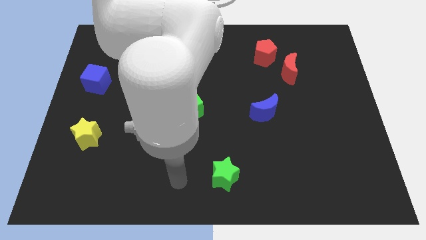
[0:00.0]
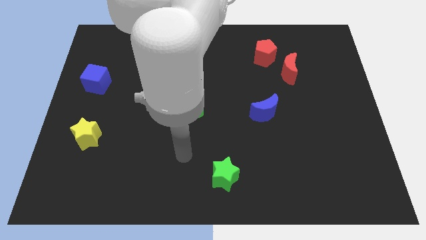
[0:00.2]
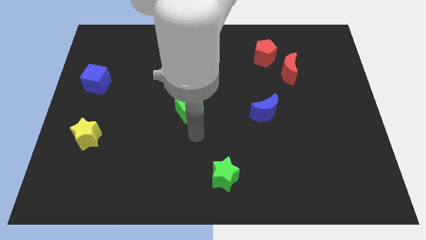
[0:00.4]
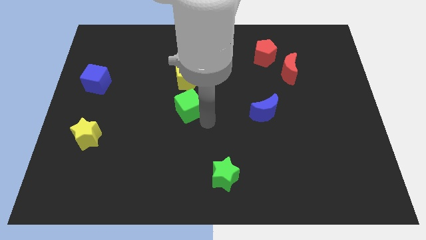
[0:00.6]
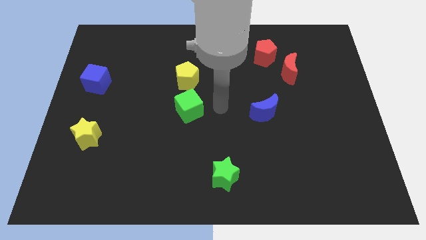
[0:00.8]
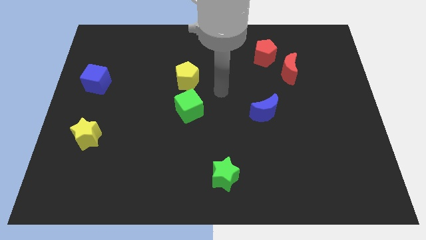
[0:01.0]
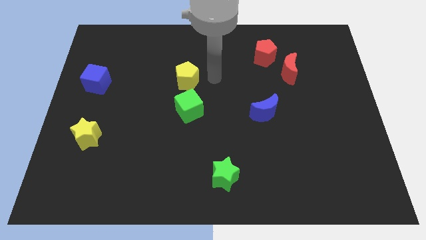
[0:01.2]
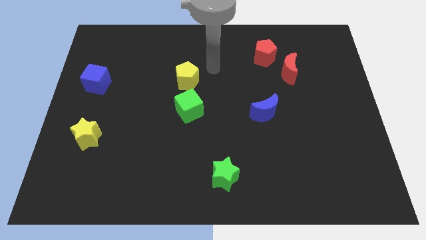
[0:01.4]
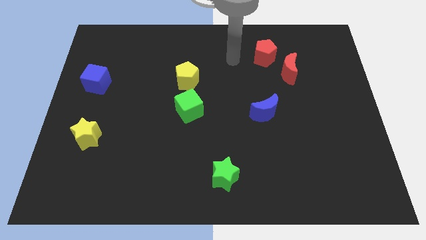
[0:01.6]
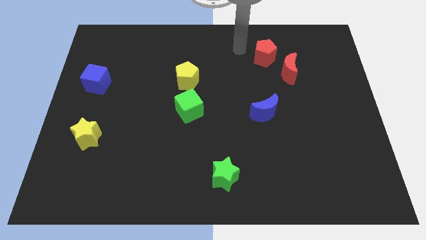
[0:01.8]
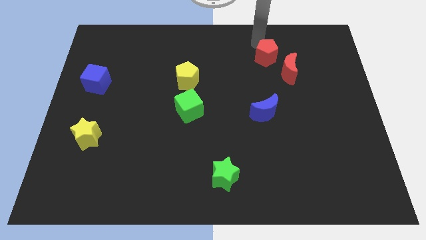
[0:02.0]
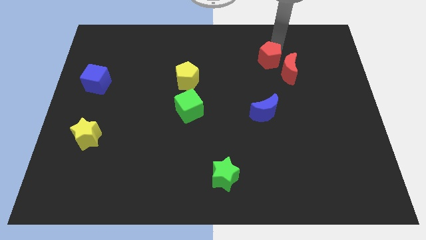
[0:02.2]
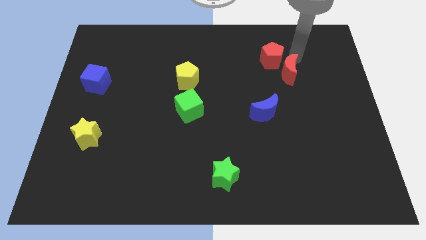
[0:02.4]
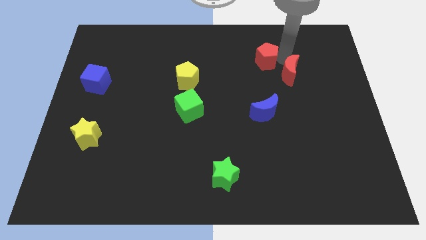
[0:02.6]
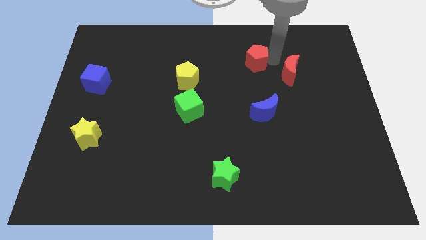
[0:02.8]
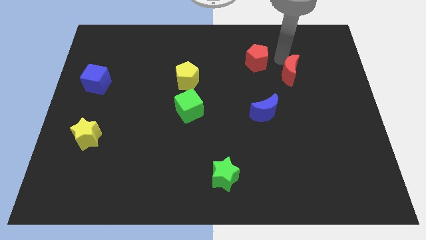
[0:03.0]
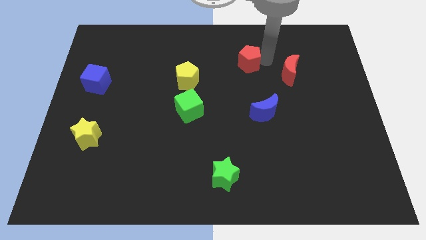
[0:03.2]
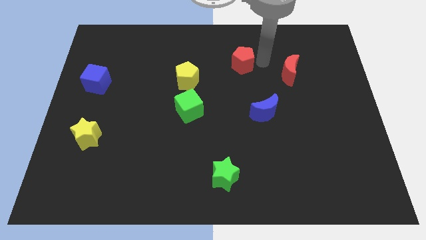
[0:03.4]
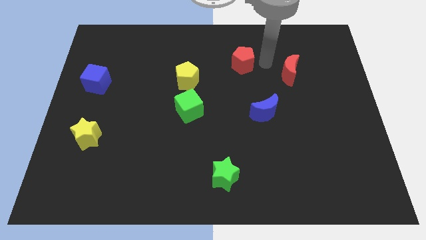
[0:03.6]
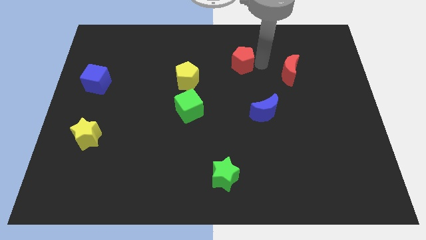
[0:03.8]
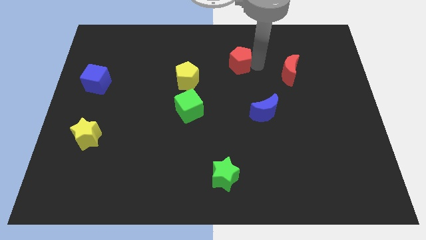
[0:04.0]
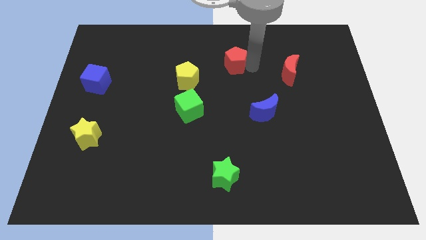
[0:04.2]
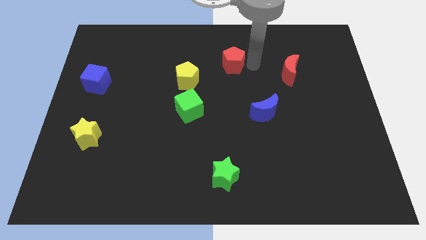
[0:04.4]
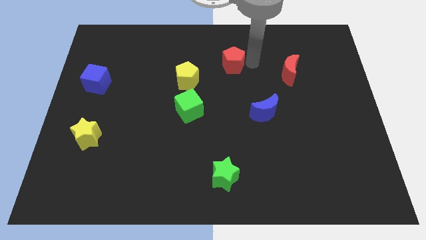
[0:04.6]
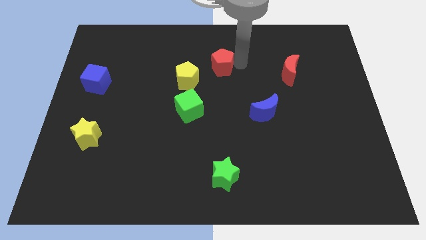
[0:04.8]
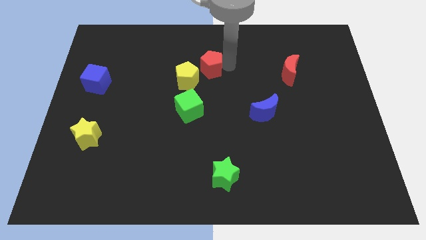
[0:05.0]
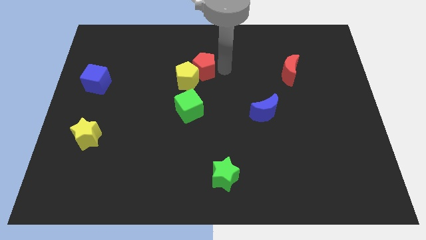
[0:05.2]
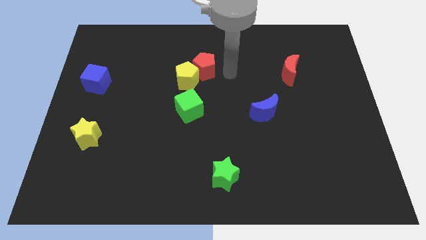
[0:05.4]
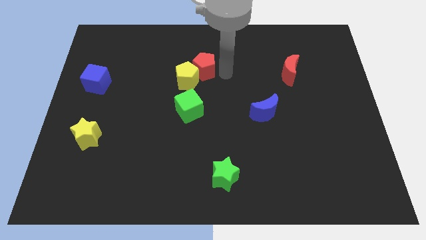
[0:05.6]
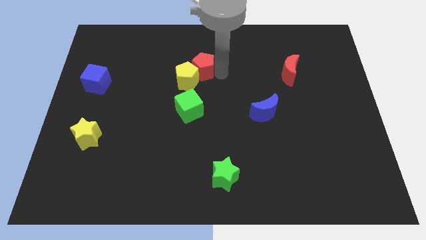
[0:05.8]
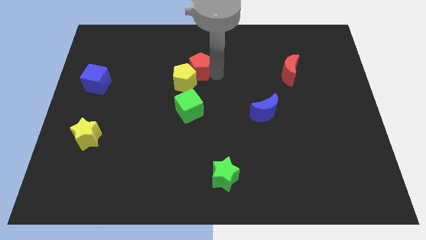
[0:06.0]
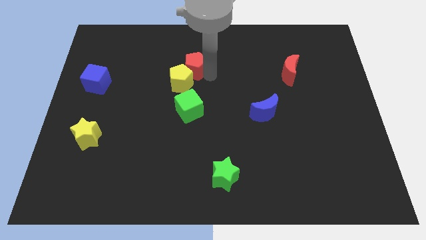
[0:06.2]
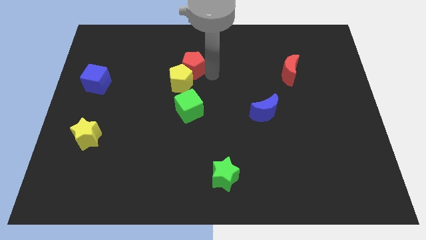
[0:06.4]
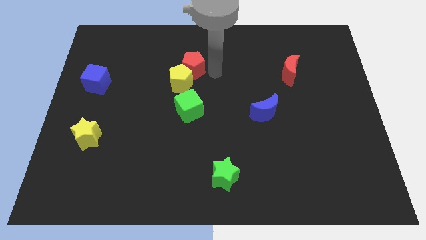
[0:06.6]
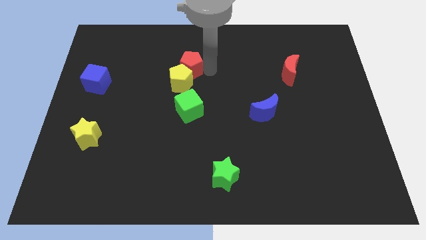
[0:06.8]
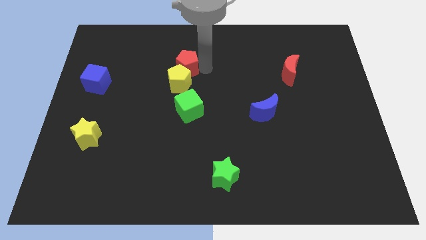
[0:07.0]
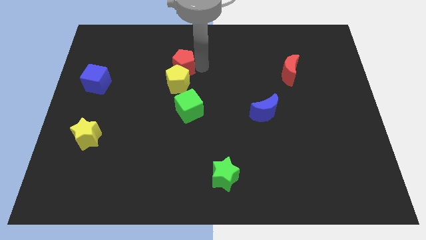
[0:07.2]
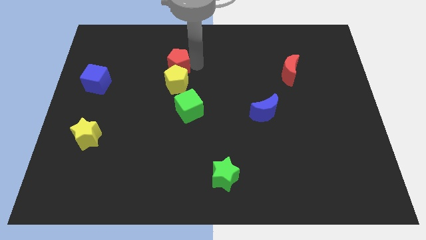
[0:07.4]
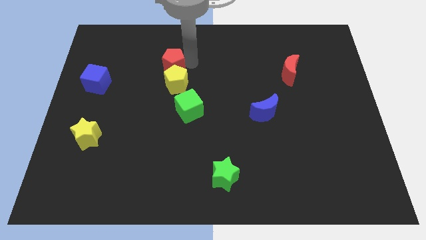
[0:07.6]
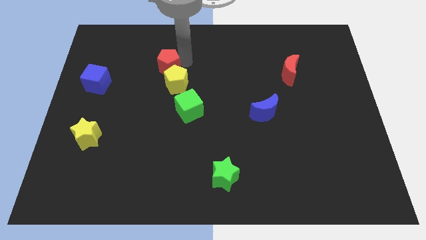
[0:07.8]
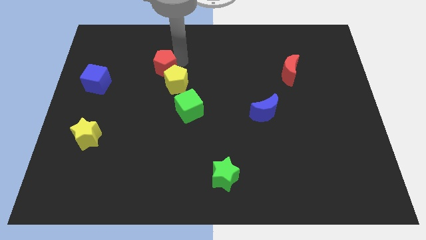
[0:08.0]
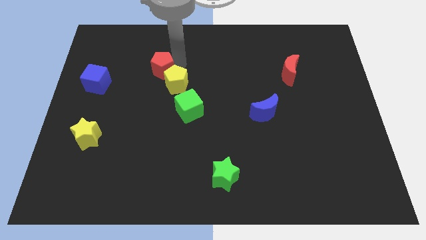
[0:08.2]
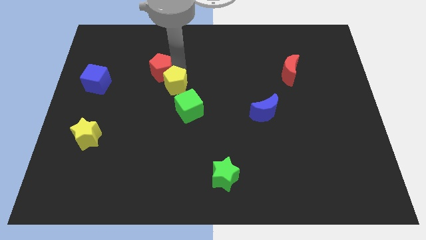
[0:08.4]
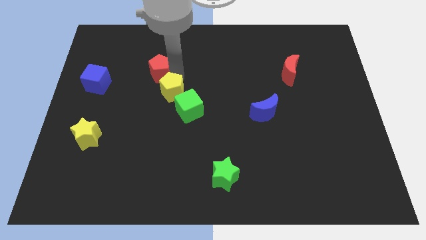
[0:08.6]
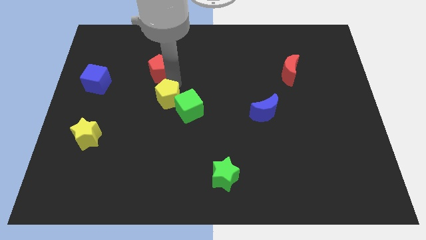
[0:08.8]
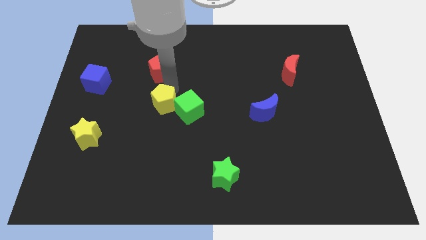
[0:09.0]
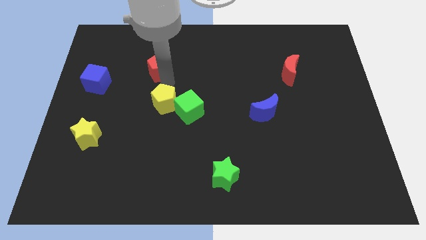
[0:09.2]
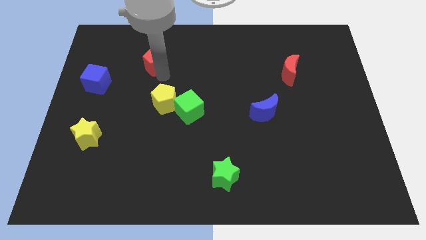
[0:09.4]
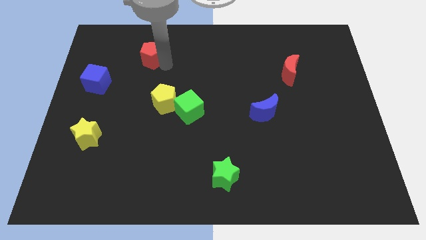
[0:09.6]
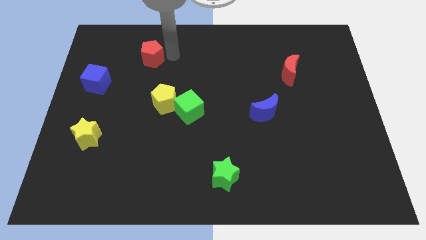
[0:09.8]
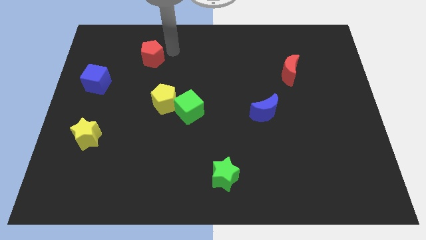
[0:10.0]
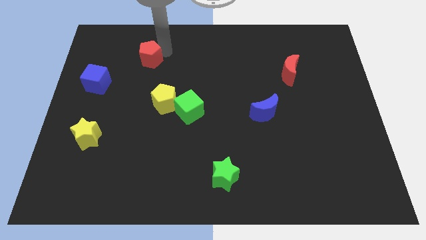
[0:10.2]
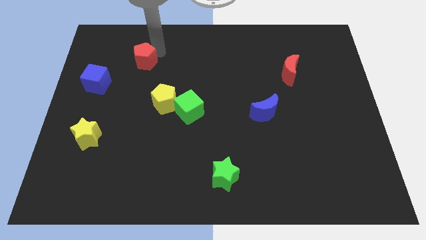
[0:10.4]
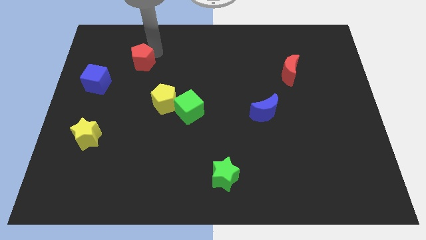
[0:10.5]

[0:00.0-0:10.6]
slide the red pentagon to the top right side of the blue cube
